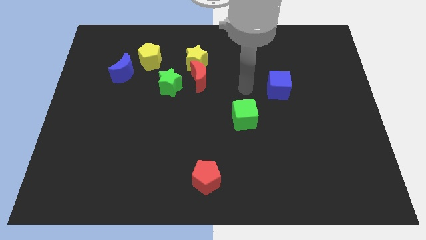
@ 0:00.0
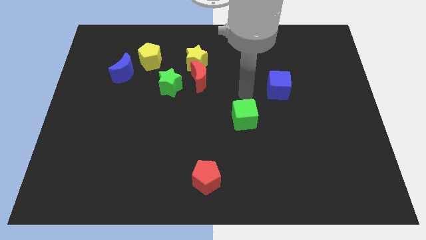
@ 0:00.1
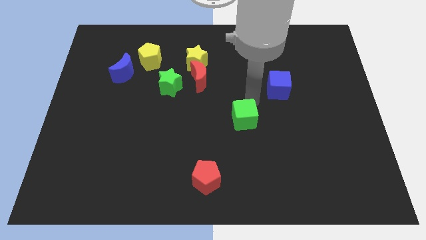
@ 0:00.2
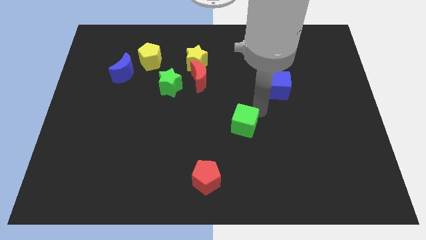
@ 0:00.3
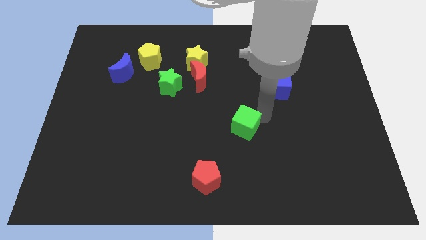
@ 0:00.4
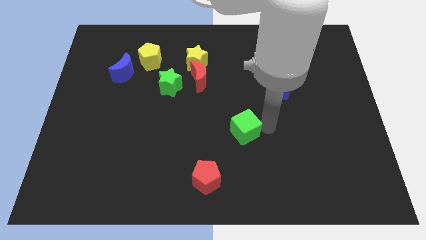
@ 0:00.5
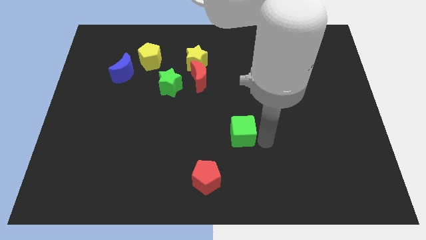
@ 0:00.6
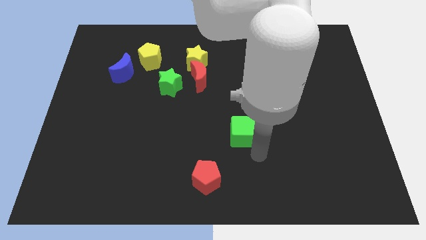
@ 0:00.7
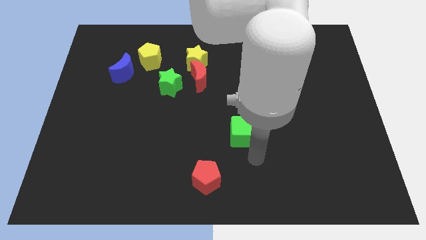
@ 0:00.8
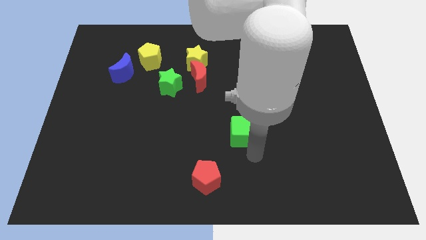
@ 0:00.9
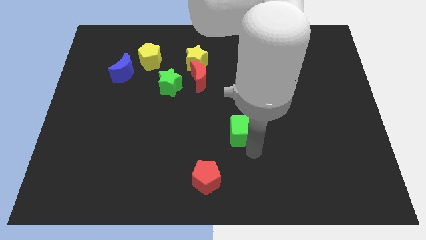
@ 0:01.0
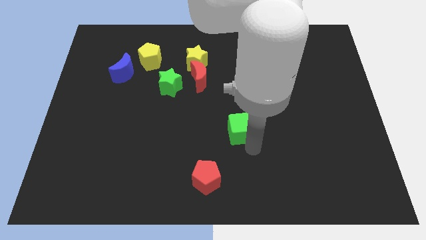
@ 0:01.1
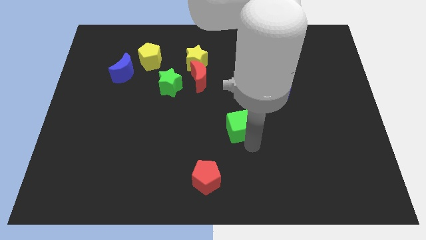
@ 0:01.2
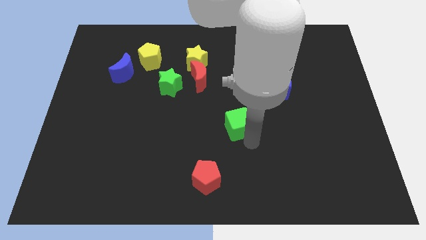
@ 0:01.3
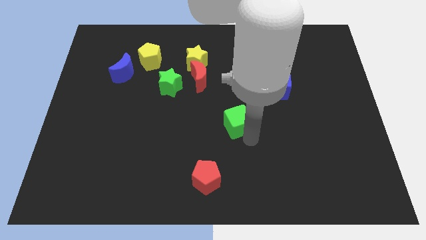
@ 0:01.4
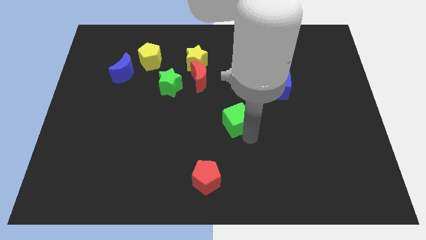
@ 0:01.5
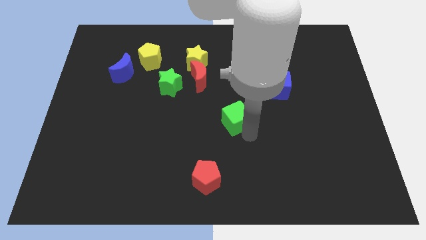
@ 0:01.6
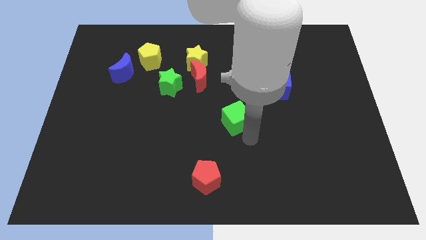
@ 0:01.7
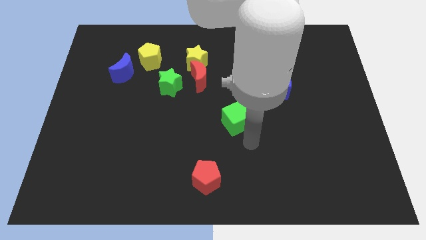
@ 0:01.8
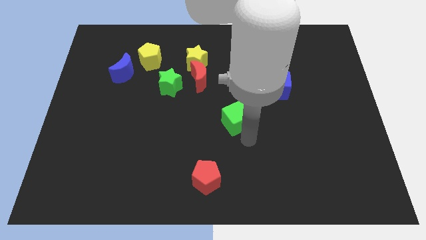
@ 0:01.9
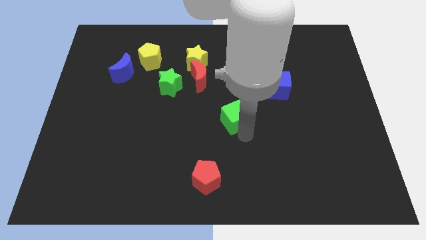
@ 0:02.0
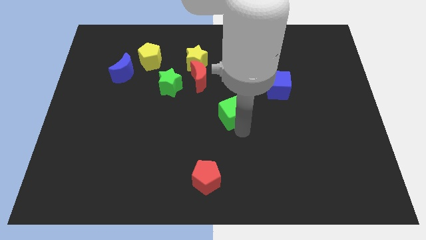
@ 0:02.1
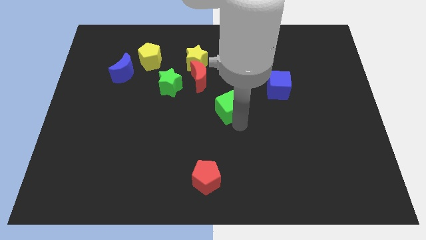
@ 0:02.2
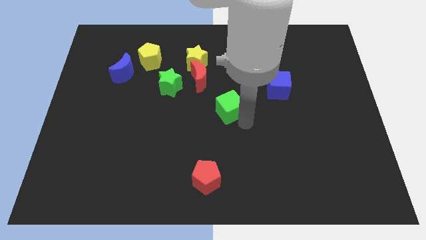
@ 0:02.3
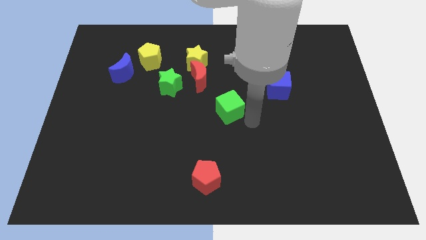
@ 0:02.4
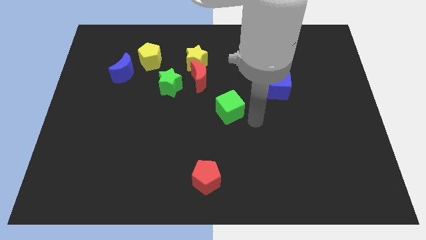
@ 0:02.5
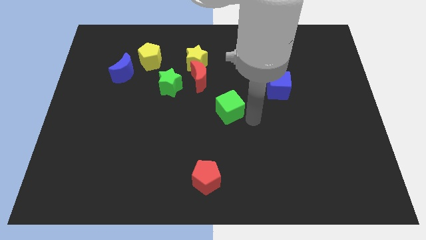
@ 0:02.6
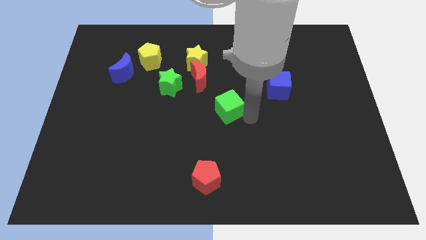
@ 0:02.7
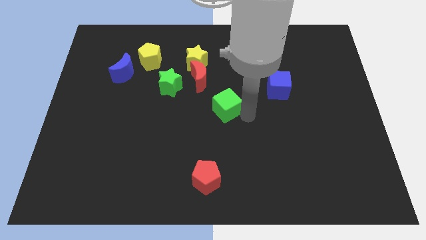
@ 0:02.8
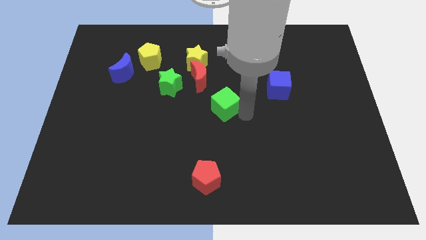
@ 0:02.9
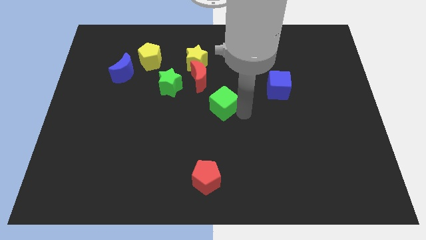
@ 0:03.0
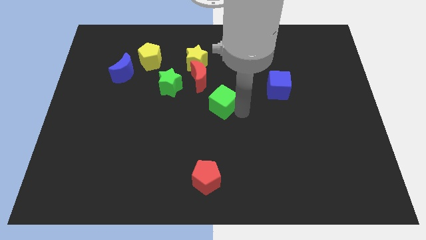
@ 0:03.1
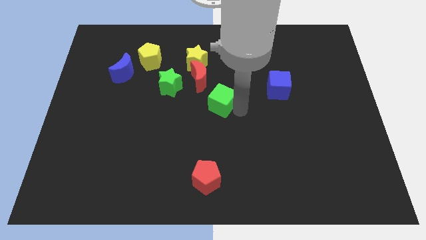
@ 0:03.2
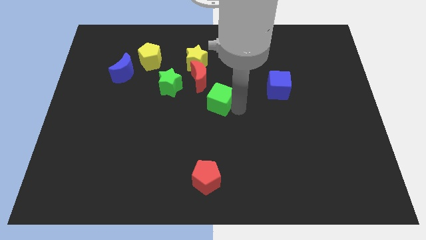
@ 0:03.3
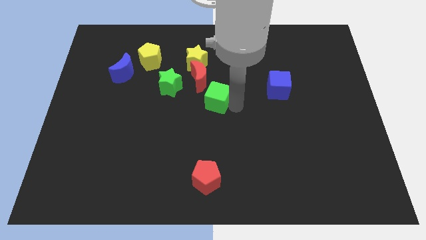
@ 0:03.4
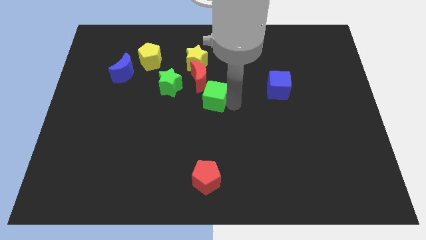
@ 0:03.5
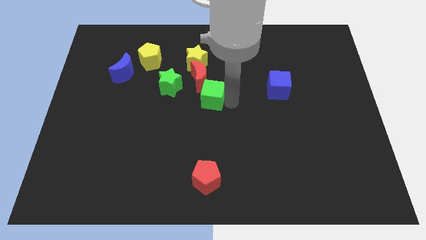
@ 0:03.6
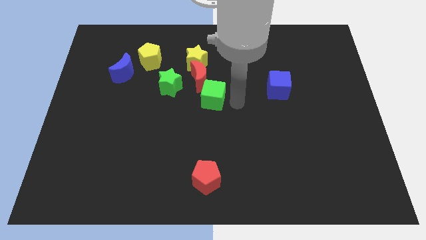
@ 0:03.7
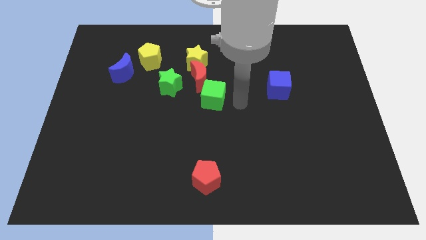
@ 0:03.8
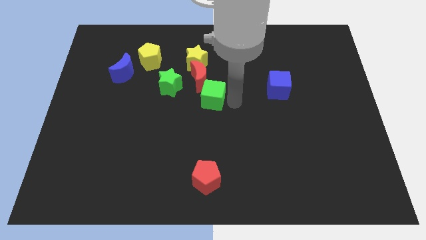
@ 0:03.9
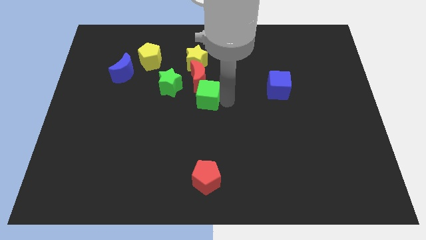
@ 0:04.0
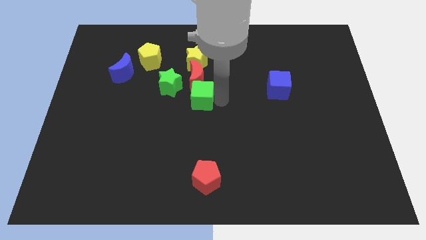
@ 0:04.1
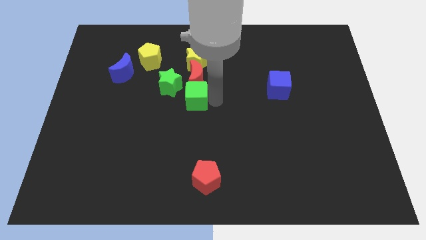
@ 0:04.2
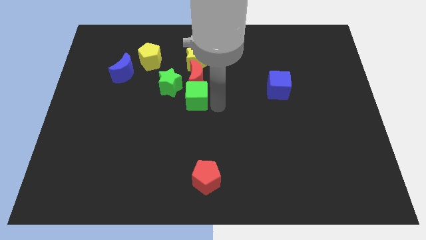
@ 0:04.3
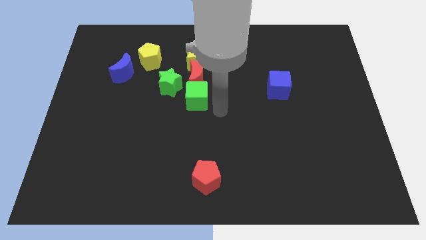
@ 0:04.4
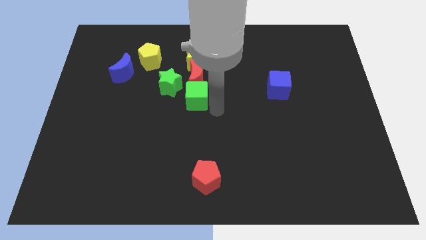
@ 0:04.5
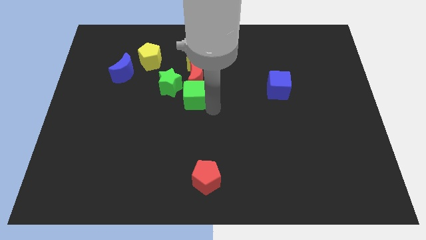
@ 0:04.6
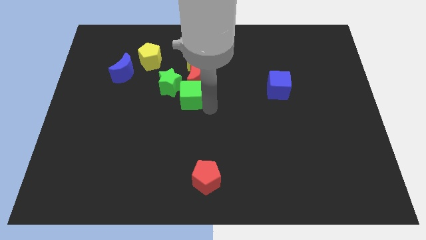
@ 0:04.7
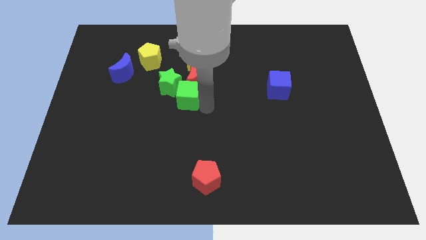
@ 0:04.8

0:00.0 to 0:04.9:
put the green cube towards the green star

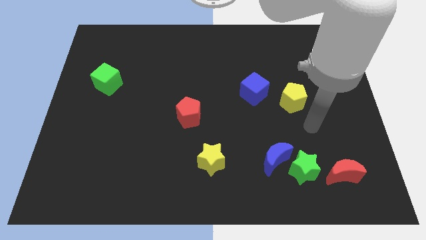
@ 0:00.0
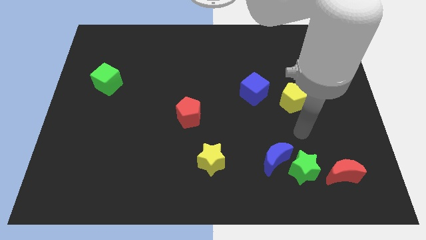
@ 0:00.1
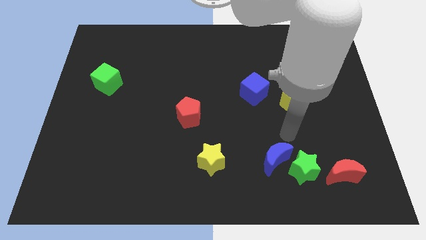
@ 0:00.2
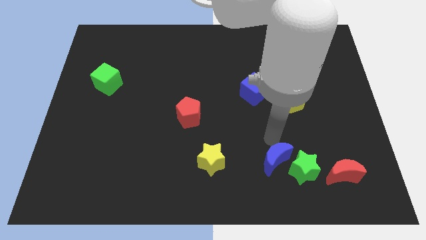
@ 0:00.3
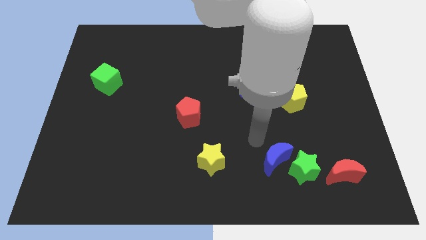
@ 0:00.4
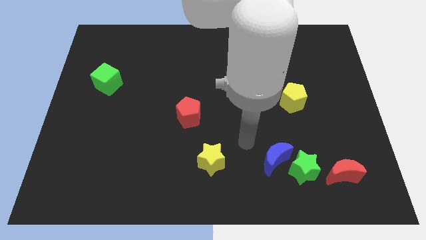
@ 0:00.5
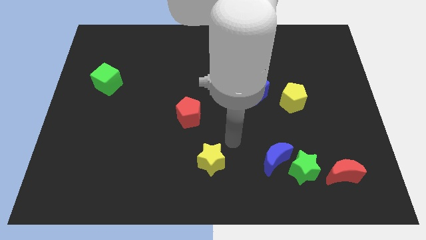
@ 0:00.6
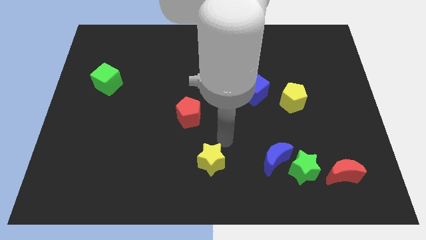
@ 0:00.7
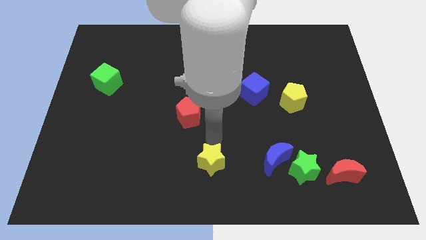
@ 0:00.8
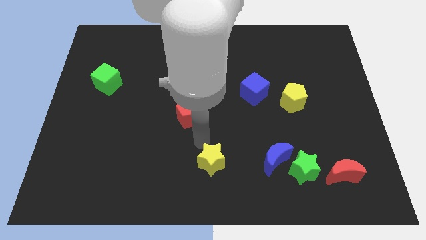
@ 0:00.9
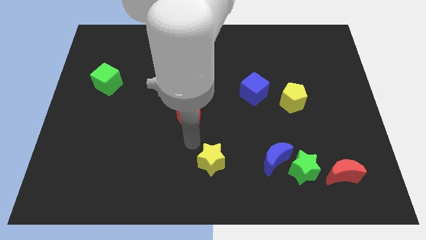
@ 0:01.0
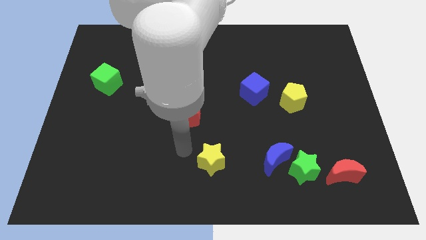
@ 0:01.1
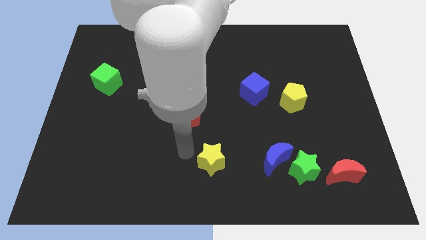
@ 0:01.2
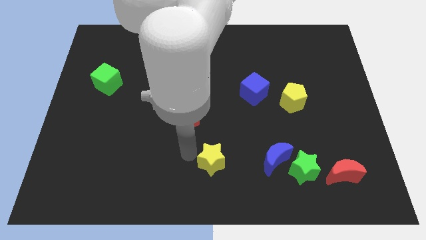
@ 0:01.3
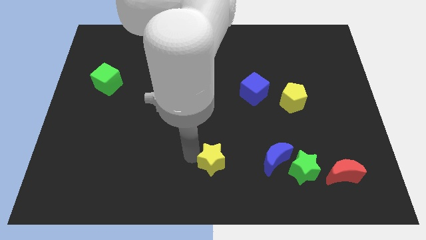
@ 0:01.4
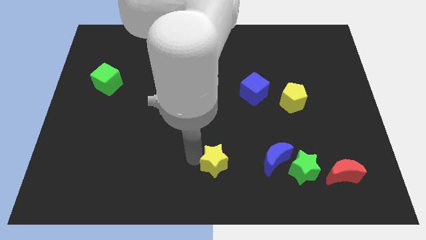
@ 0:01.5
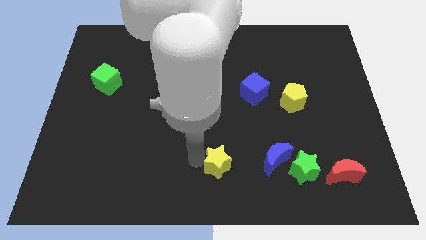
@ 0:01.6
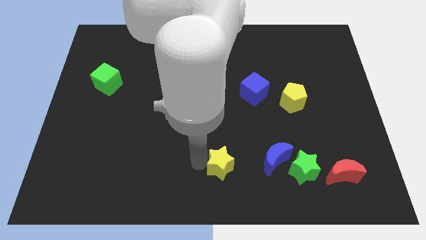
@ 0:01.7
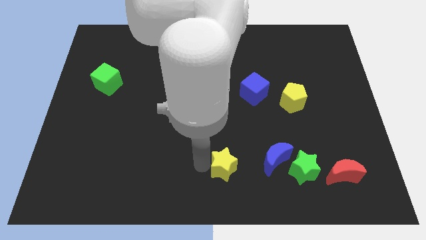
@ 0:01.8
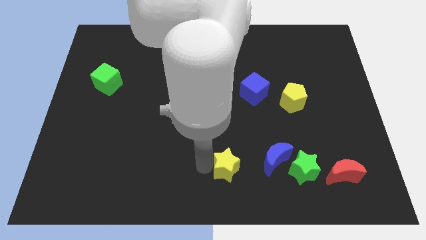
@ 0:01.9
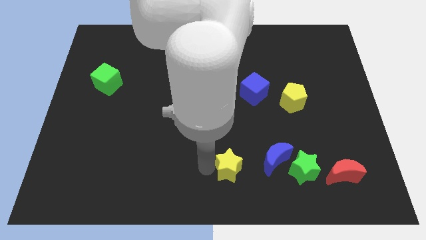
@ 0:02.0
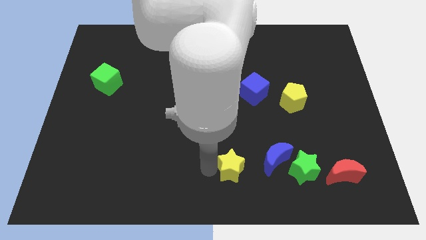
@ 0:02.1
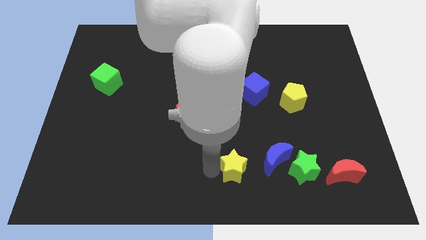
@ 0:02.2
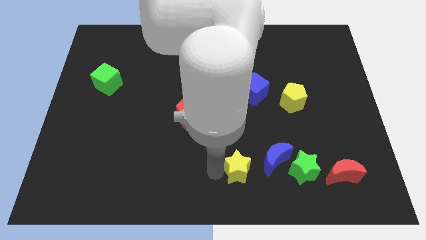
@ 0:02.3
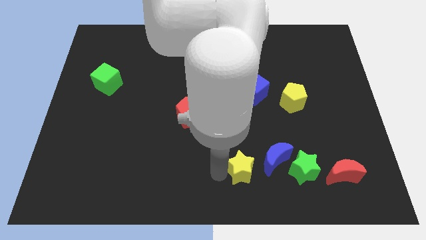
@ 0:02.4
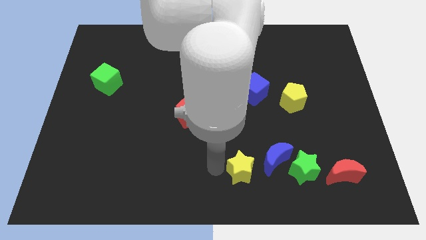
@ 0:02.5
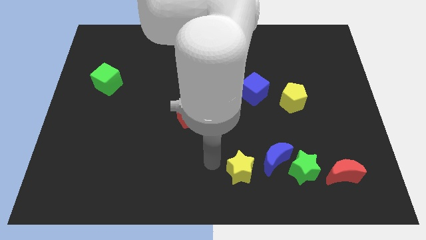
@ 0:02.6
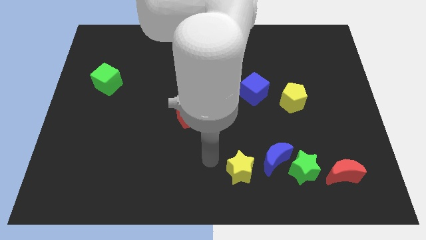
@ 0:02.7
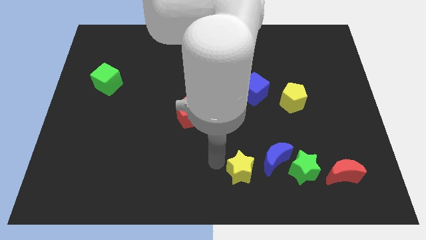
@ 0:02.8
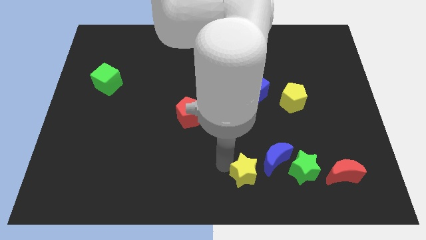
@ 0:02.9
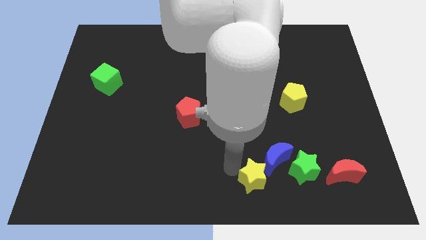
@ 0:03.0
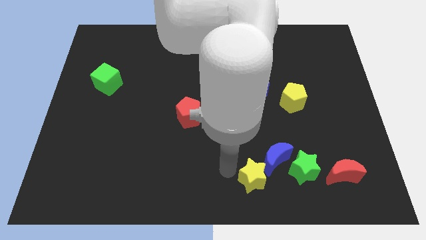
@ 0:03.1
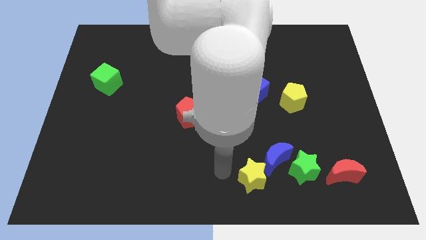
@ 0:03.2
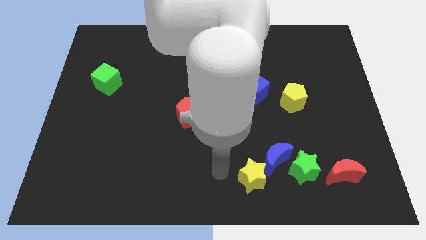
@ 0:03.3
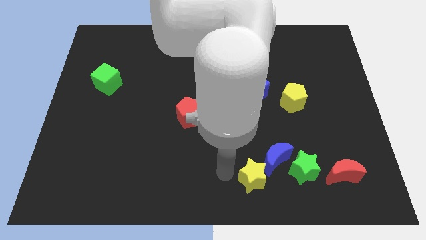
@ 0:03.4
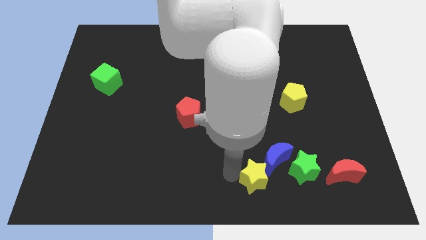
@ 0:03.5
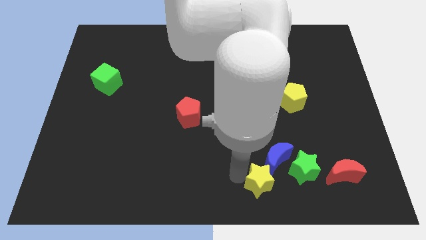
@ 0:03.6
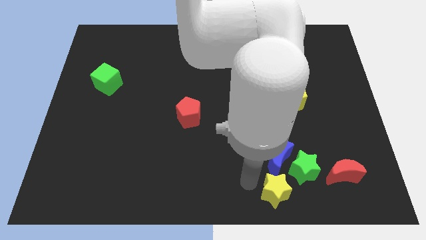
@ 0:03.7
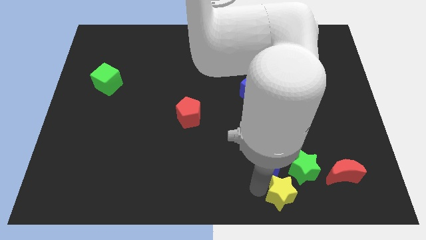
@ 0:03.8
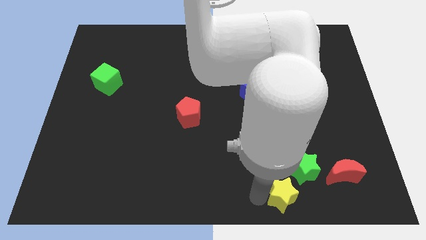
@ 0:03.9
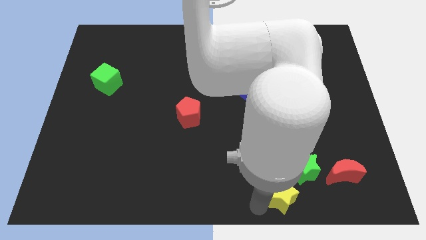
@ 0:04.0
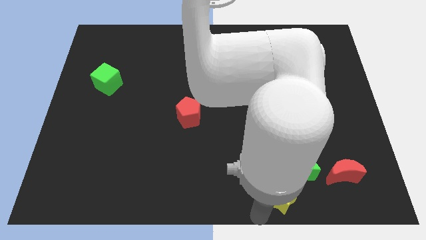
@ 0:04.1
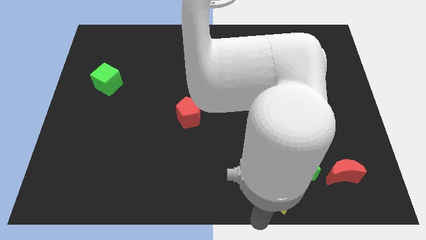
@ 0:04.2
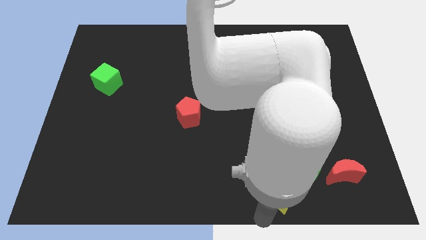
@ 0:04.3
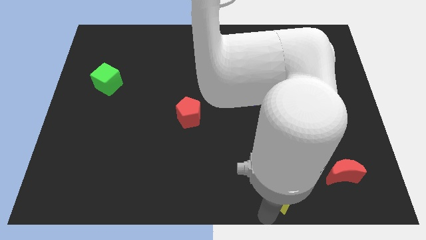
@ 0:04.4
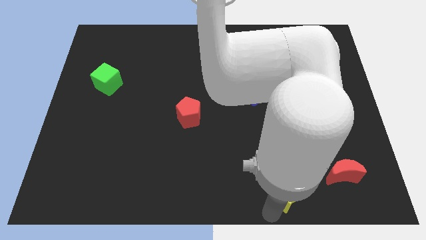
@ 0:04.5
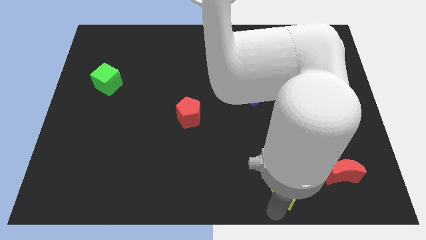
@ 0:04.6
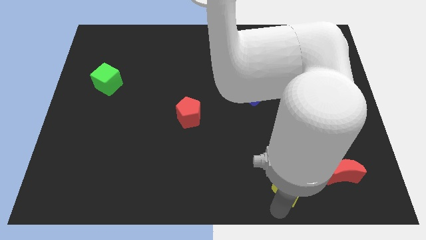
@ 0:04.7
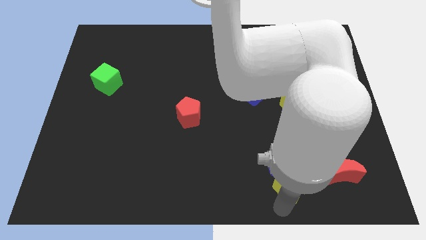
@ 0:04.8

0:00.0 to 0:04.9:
slide the yellow star close to the green star
